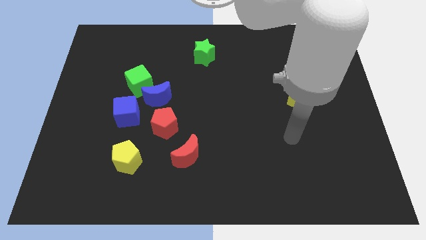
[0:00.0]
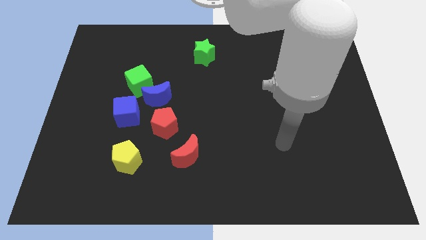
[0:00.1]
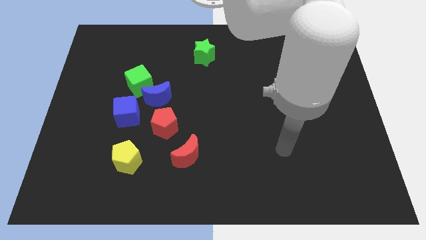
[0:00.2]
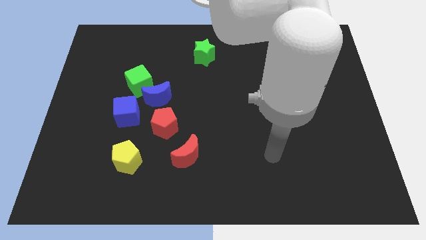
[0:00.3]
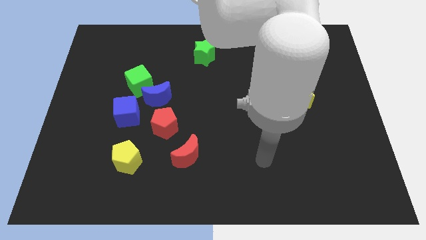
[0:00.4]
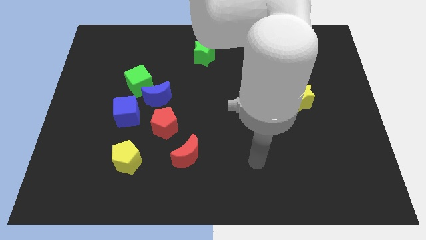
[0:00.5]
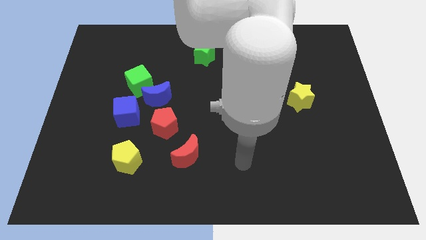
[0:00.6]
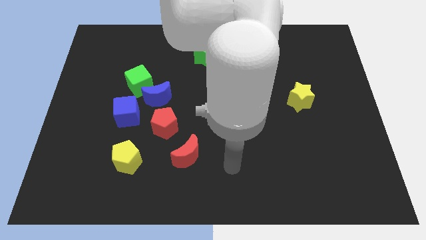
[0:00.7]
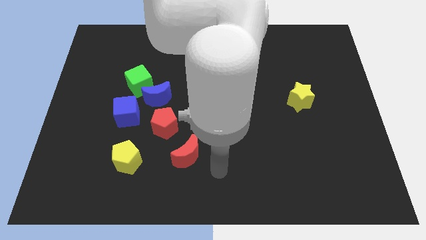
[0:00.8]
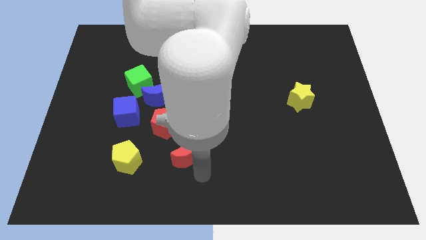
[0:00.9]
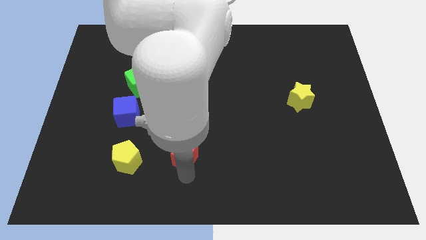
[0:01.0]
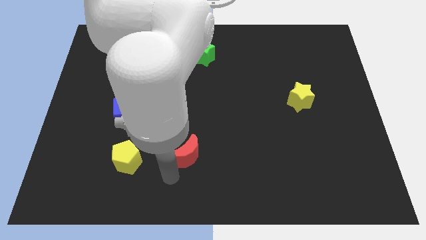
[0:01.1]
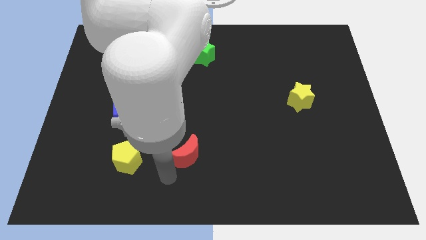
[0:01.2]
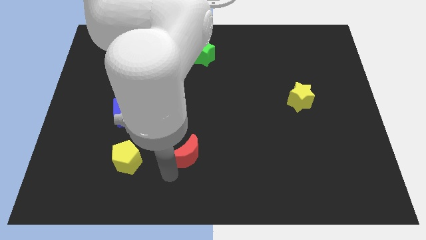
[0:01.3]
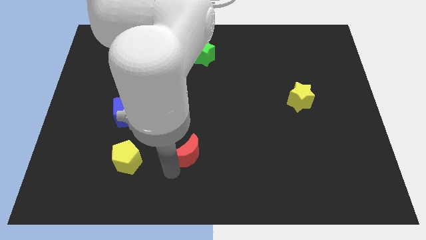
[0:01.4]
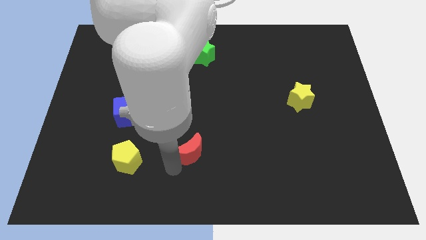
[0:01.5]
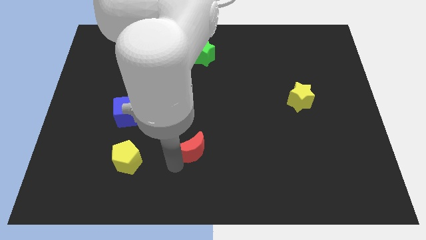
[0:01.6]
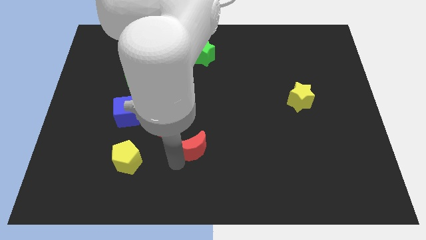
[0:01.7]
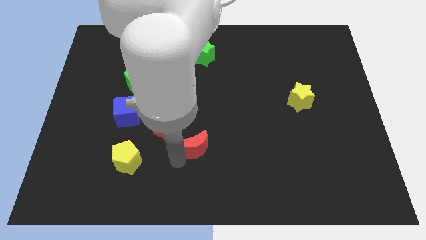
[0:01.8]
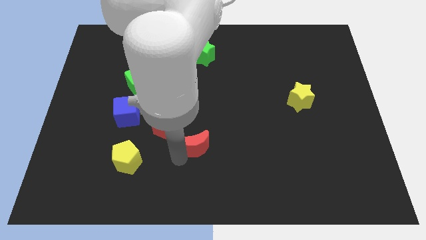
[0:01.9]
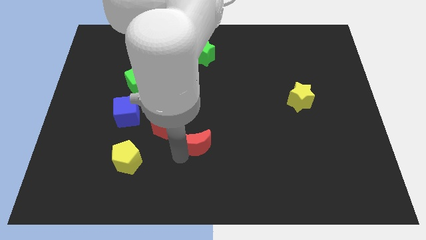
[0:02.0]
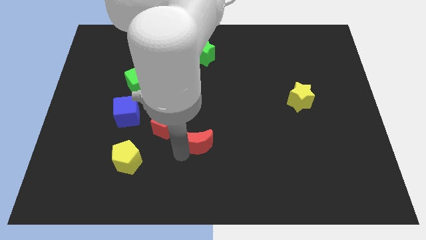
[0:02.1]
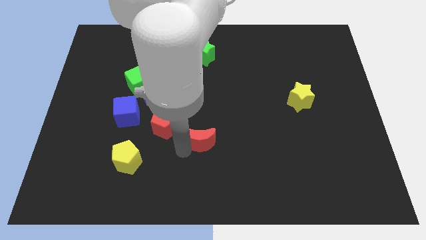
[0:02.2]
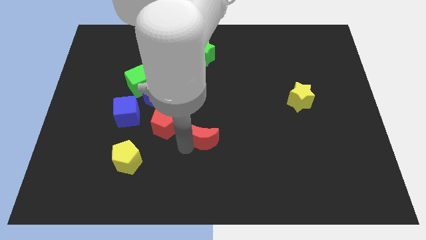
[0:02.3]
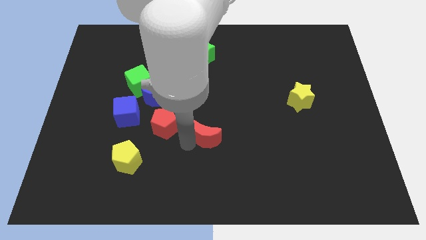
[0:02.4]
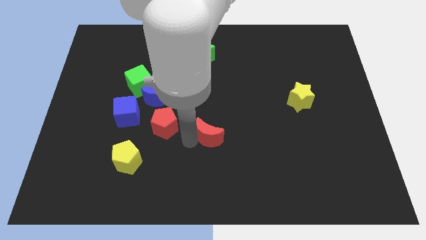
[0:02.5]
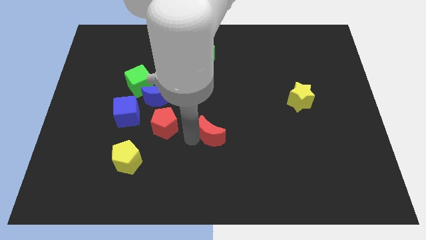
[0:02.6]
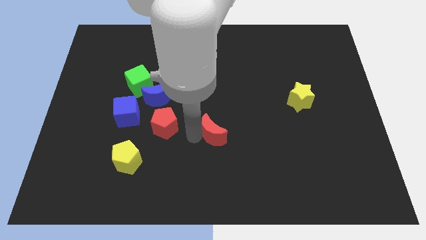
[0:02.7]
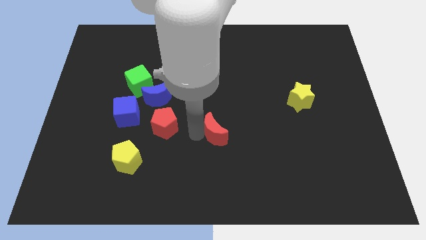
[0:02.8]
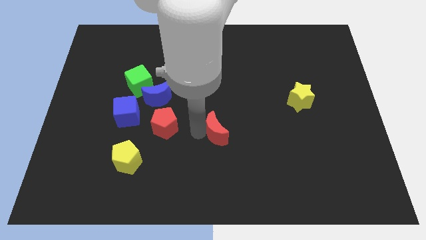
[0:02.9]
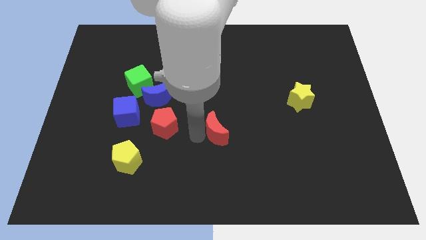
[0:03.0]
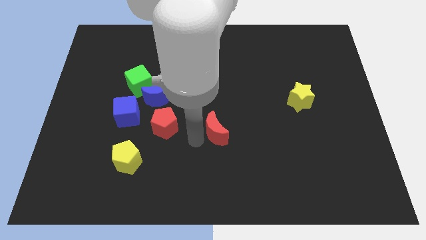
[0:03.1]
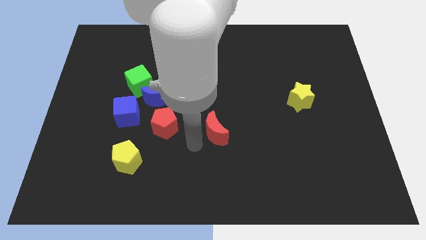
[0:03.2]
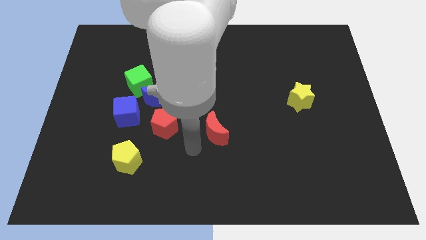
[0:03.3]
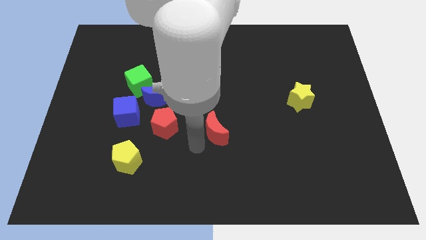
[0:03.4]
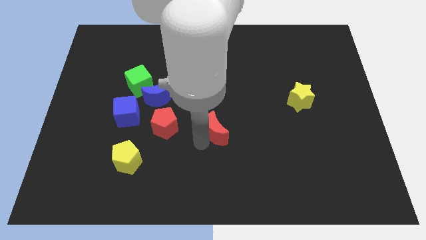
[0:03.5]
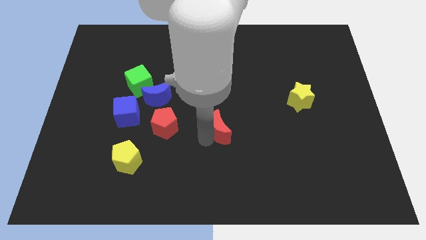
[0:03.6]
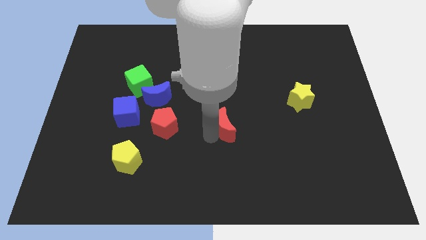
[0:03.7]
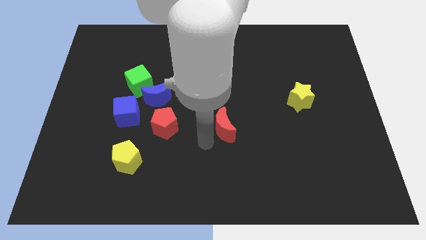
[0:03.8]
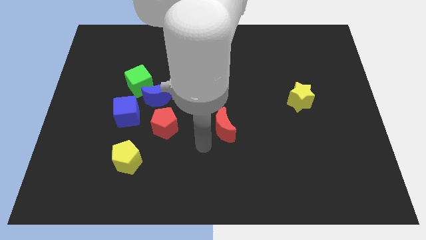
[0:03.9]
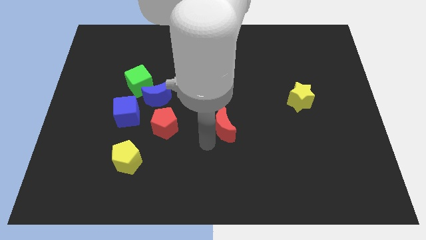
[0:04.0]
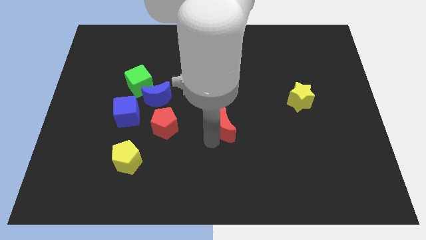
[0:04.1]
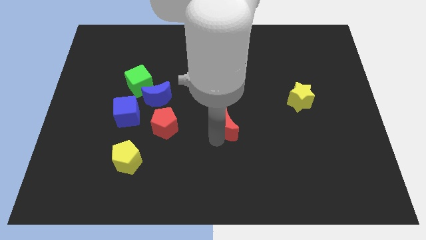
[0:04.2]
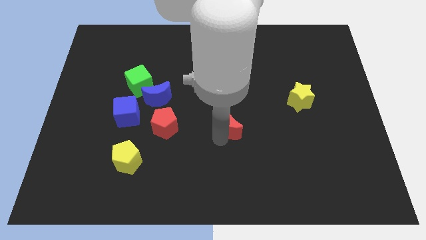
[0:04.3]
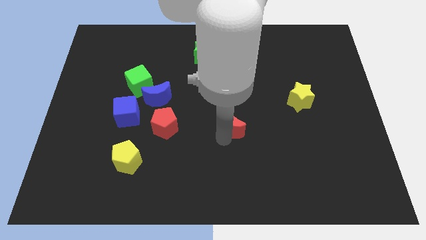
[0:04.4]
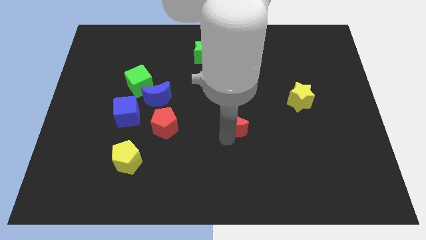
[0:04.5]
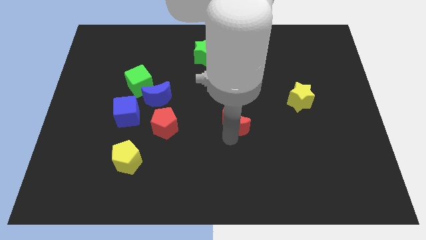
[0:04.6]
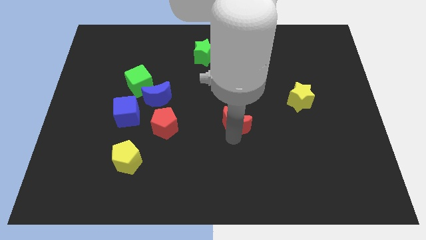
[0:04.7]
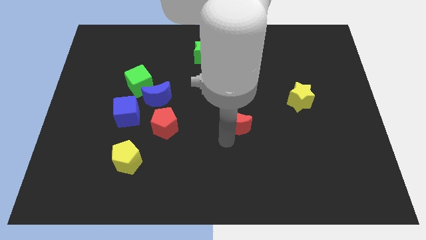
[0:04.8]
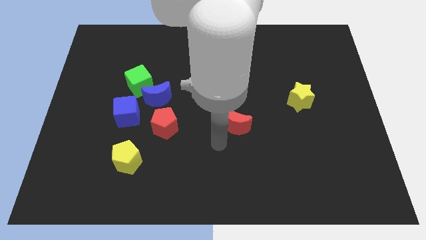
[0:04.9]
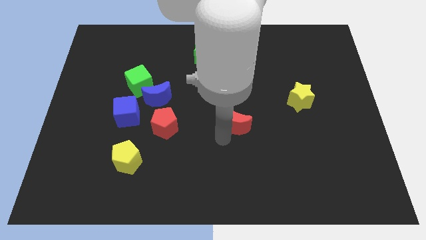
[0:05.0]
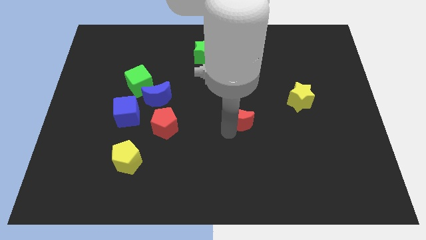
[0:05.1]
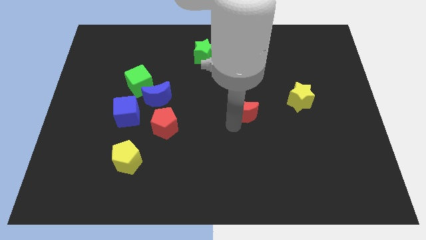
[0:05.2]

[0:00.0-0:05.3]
move the red moon just left of the yellow star

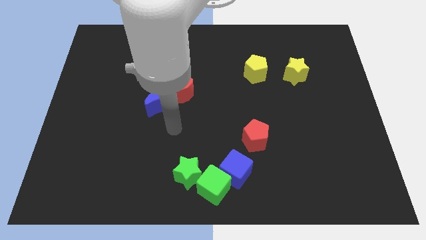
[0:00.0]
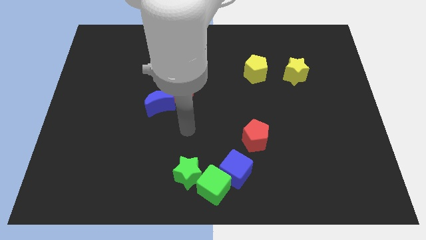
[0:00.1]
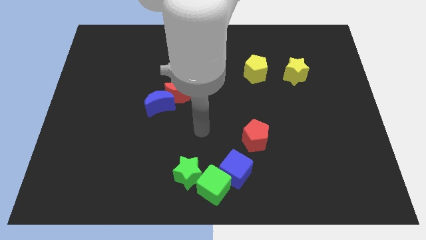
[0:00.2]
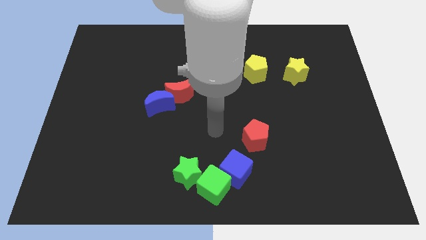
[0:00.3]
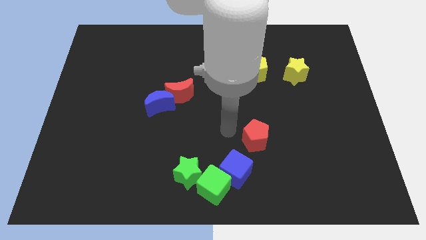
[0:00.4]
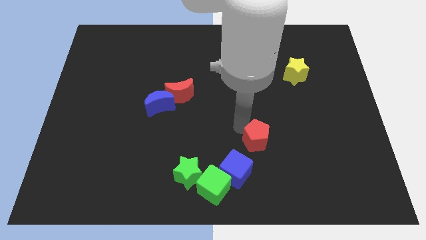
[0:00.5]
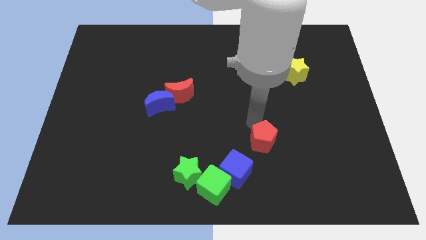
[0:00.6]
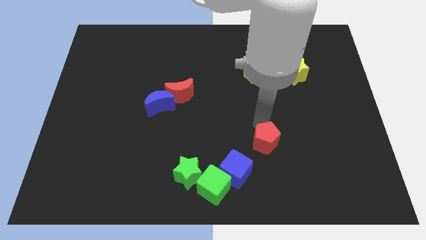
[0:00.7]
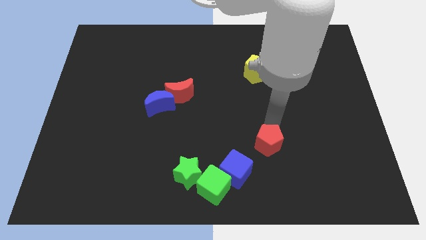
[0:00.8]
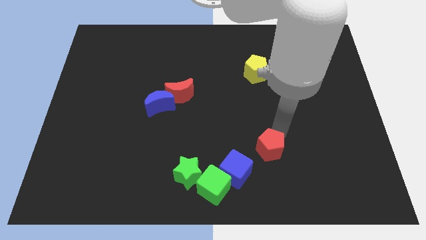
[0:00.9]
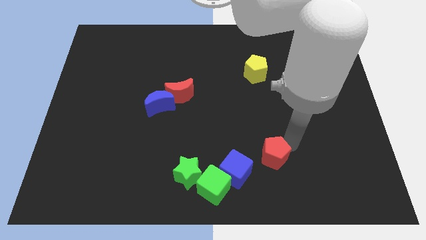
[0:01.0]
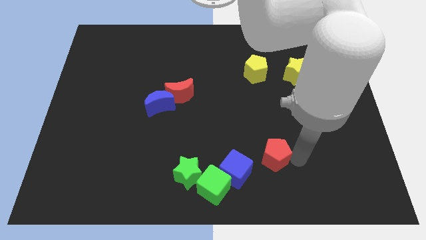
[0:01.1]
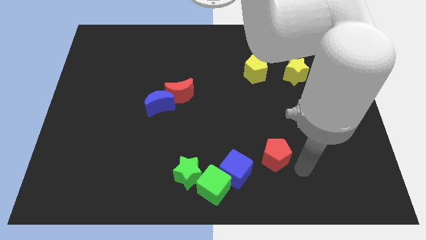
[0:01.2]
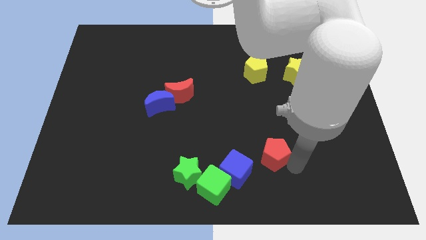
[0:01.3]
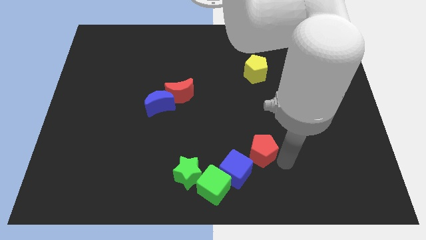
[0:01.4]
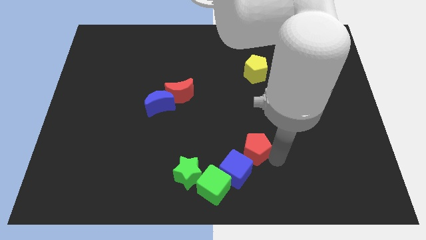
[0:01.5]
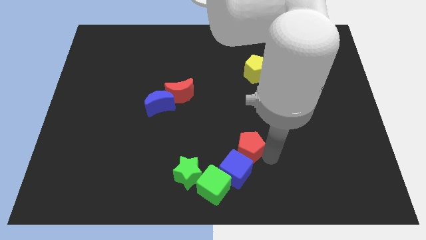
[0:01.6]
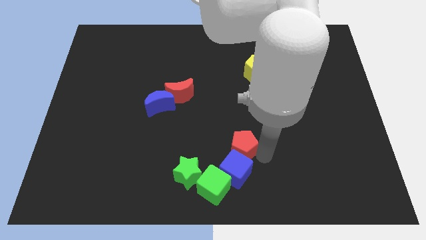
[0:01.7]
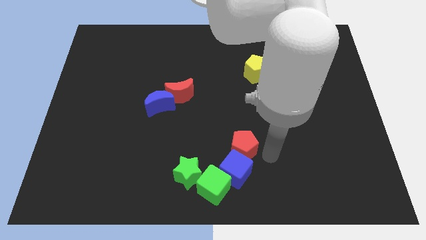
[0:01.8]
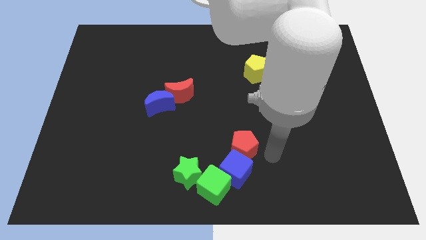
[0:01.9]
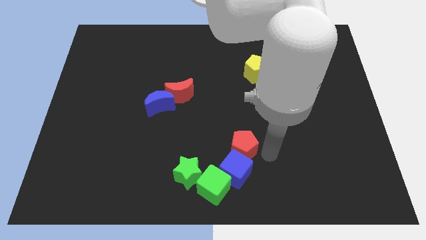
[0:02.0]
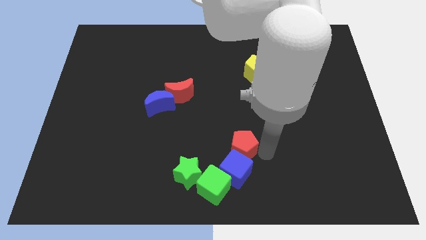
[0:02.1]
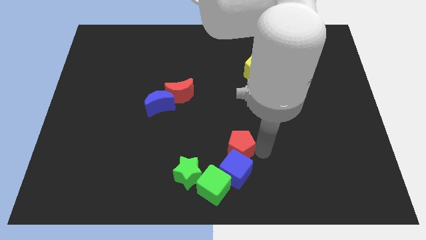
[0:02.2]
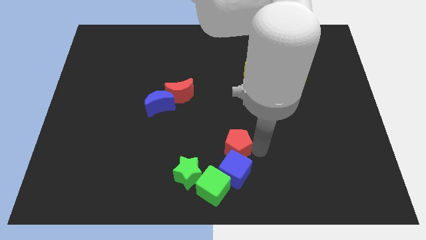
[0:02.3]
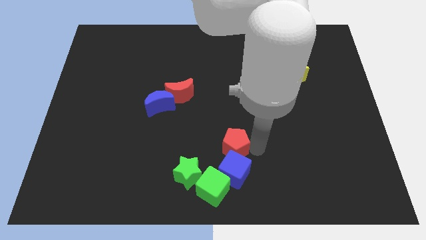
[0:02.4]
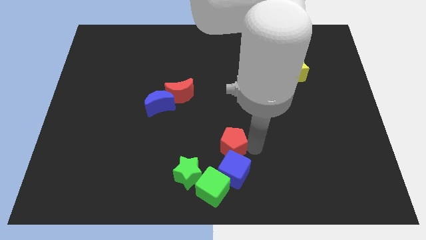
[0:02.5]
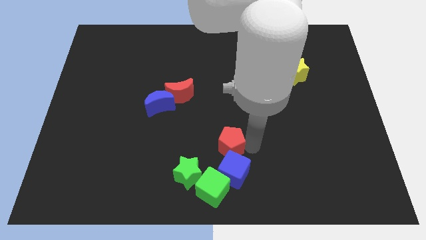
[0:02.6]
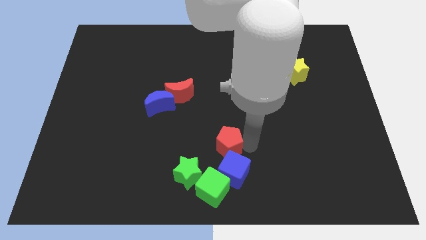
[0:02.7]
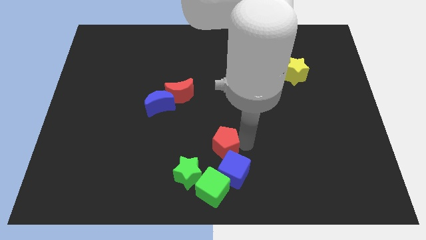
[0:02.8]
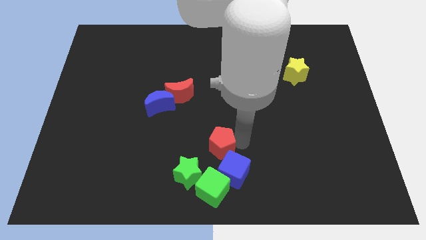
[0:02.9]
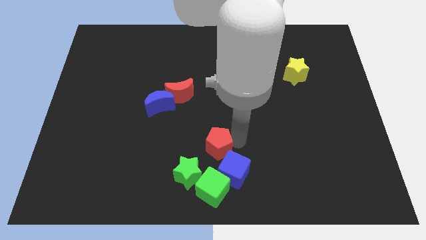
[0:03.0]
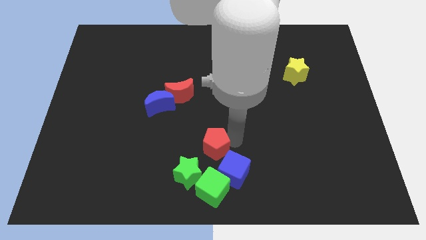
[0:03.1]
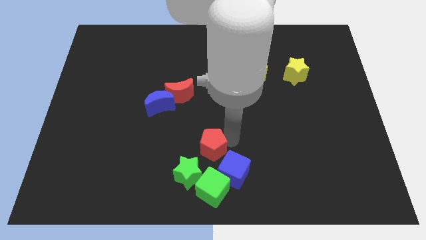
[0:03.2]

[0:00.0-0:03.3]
put the red pentagon to the top of the green star
